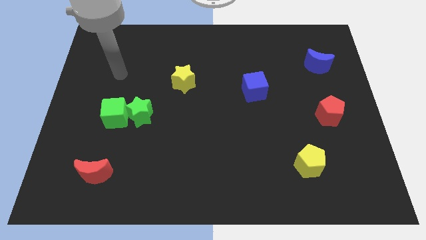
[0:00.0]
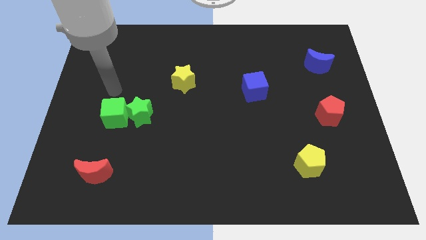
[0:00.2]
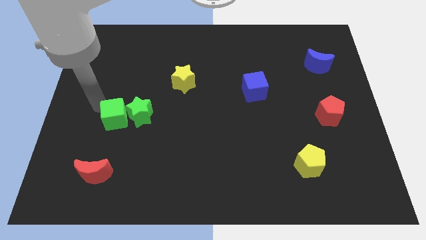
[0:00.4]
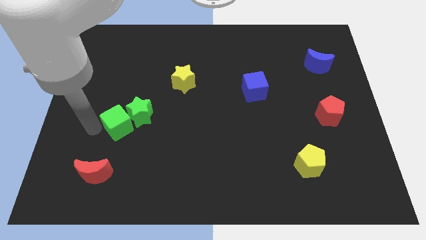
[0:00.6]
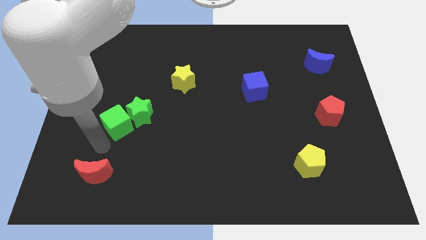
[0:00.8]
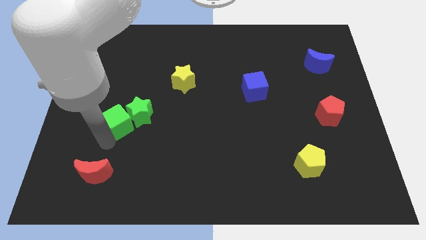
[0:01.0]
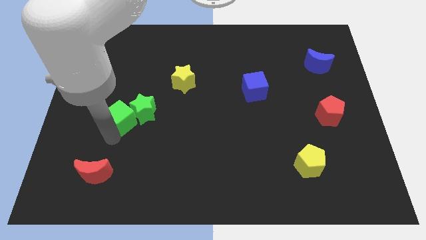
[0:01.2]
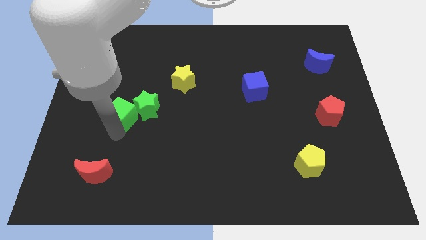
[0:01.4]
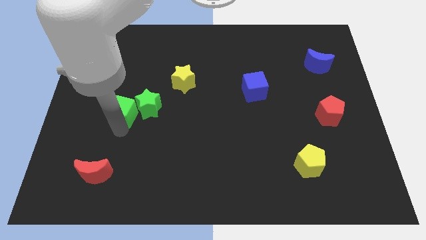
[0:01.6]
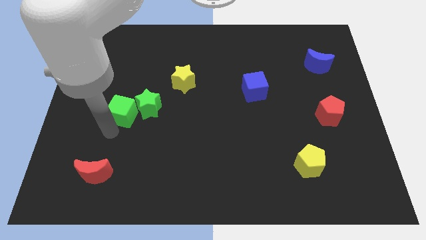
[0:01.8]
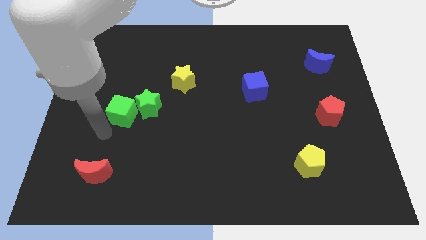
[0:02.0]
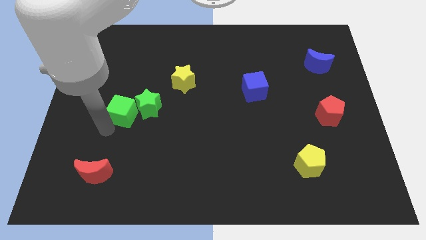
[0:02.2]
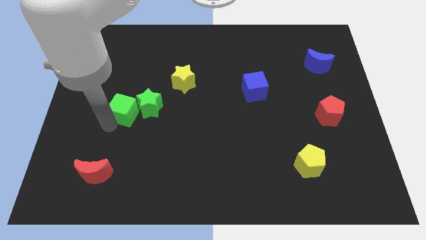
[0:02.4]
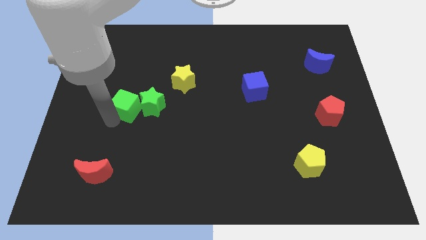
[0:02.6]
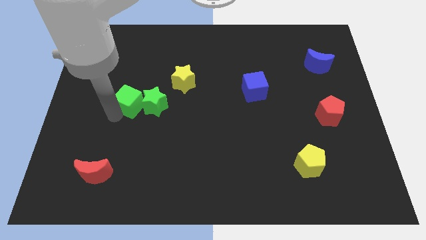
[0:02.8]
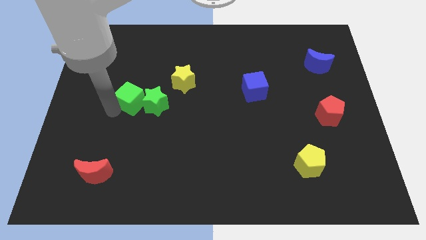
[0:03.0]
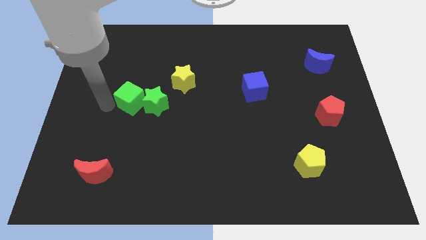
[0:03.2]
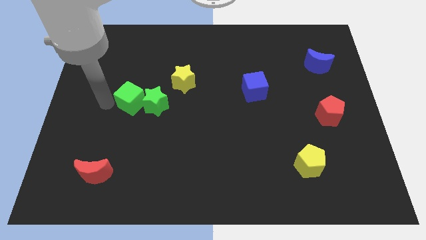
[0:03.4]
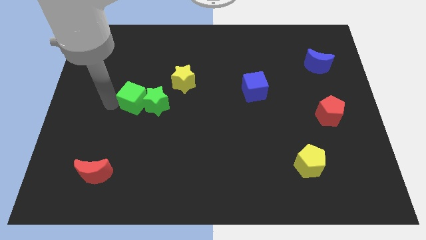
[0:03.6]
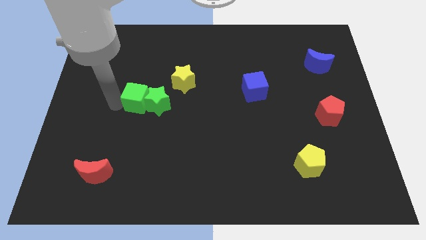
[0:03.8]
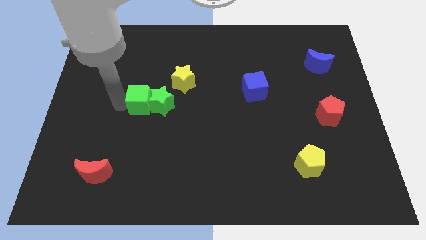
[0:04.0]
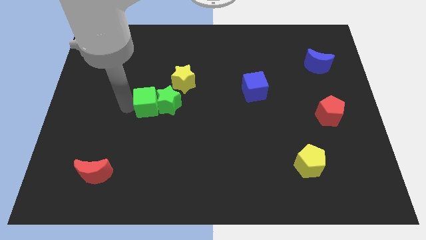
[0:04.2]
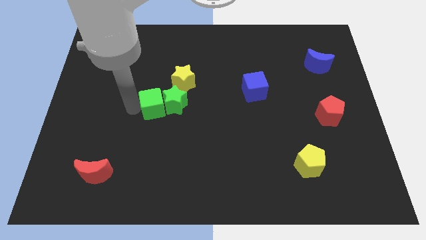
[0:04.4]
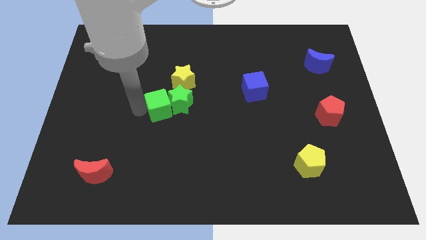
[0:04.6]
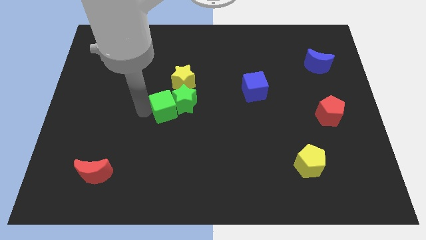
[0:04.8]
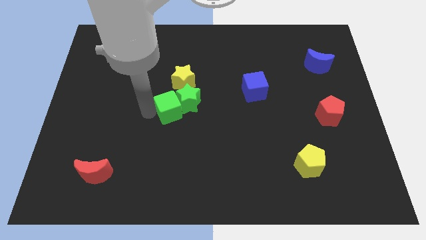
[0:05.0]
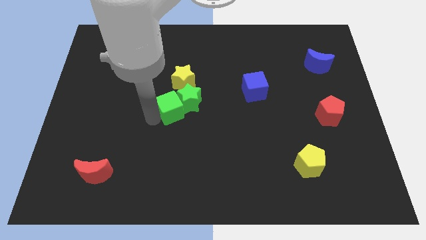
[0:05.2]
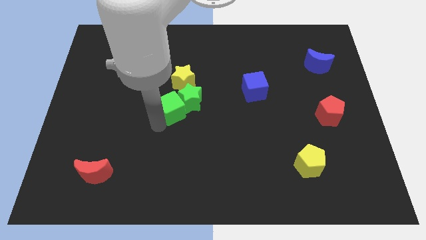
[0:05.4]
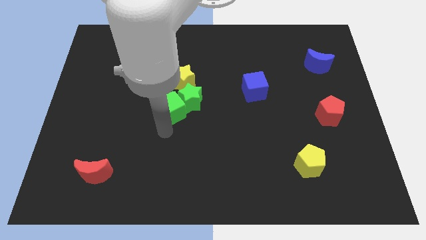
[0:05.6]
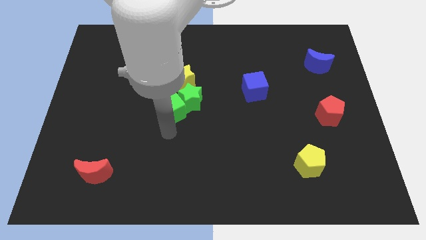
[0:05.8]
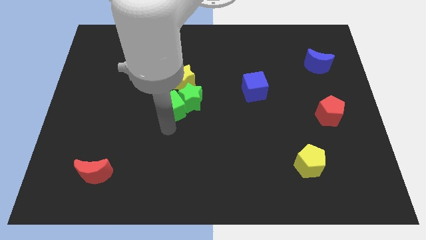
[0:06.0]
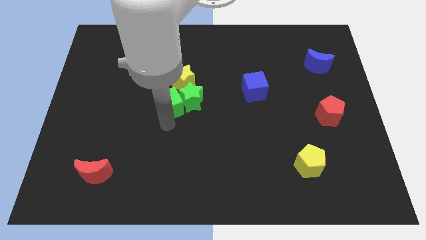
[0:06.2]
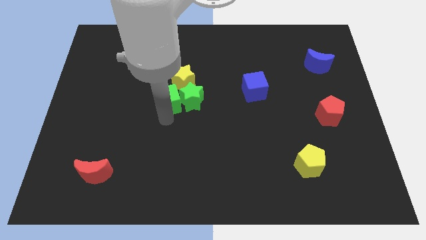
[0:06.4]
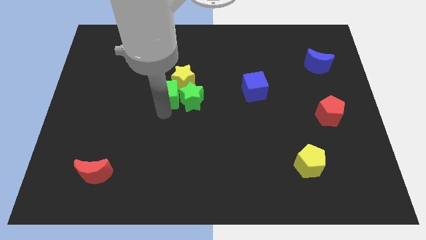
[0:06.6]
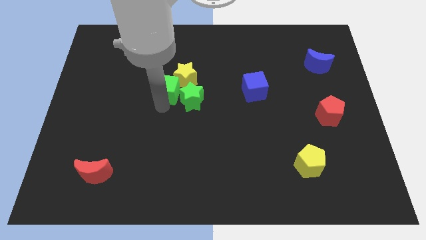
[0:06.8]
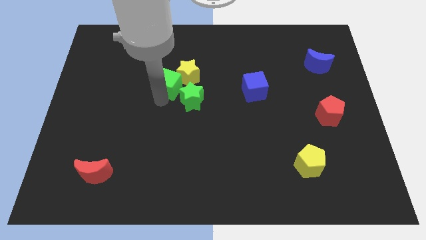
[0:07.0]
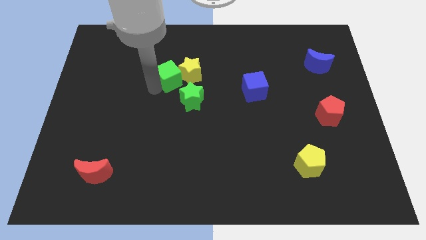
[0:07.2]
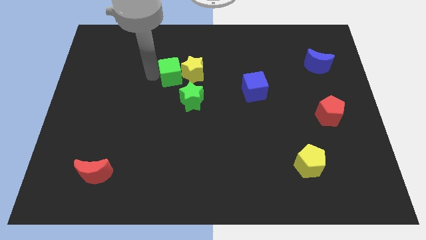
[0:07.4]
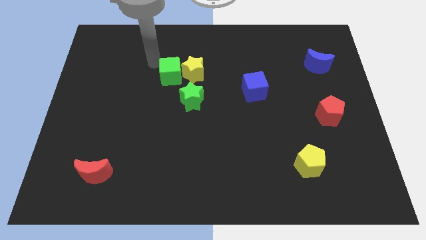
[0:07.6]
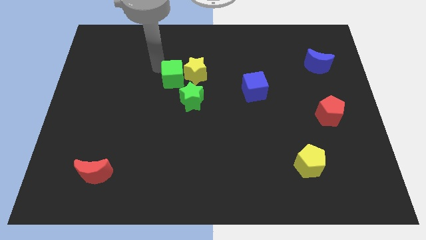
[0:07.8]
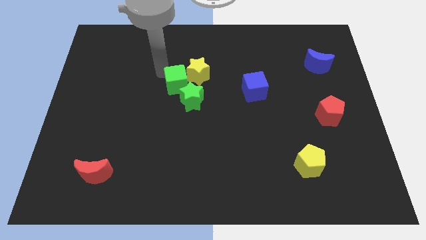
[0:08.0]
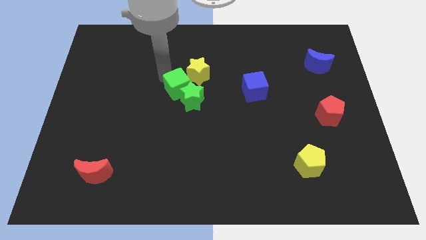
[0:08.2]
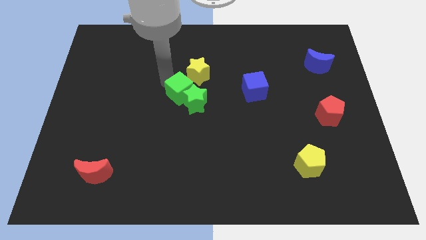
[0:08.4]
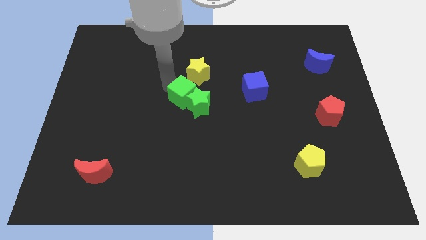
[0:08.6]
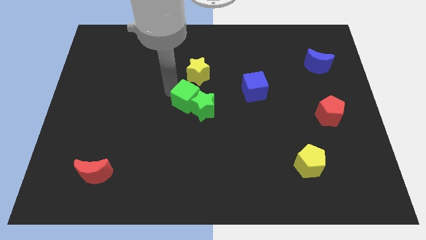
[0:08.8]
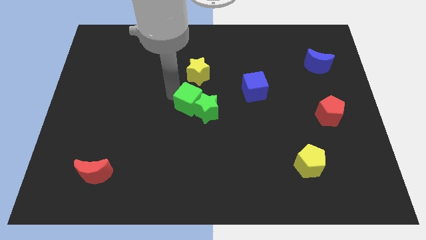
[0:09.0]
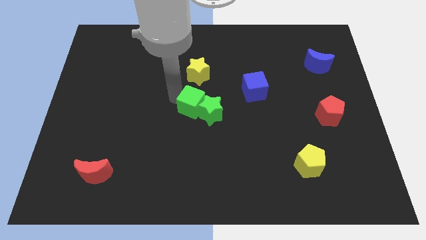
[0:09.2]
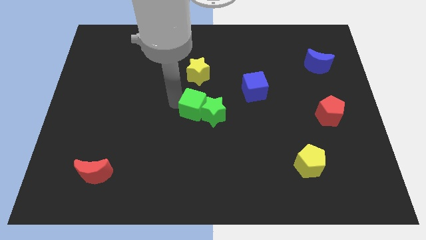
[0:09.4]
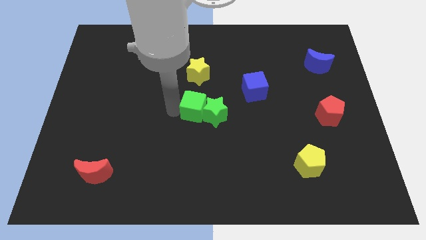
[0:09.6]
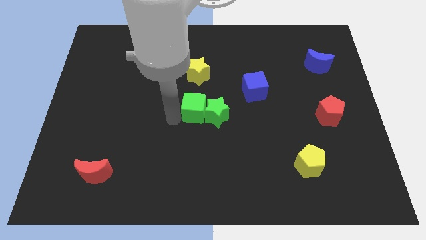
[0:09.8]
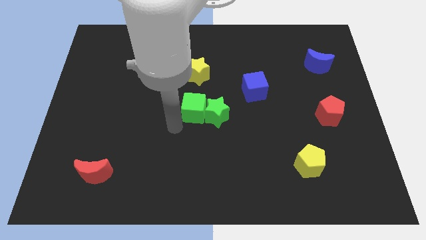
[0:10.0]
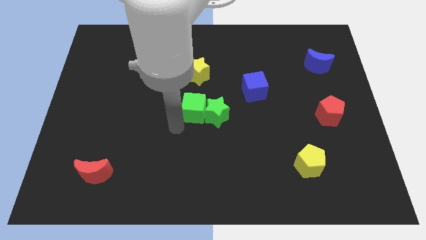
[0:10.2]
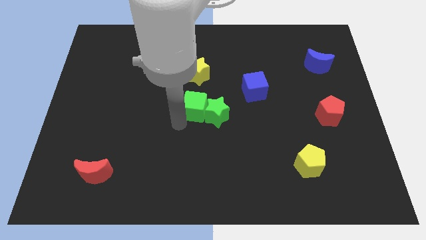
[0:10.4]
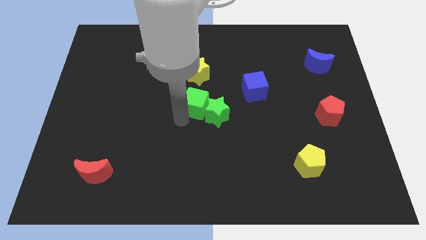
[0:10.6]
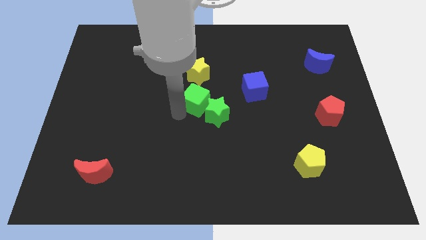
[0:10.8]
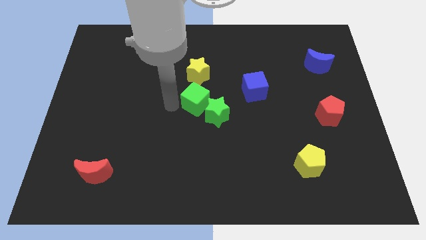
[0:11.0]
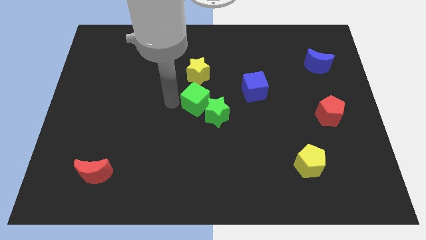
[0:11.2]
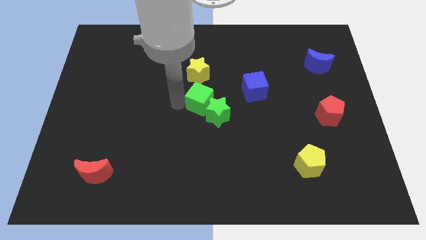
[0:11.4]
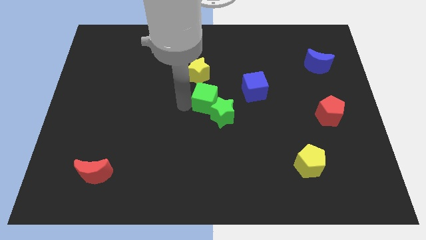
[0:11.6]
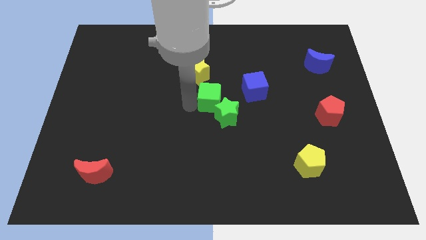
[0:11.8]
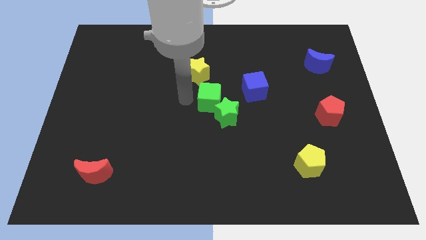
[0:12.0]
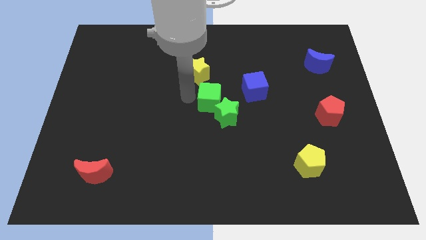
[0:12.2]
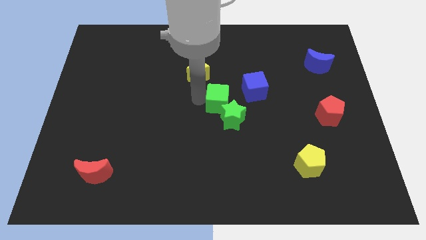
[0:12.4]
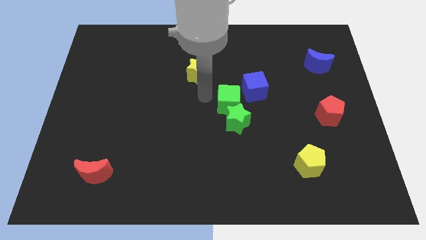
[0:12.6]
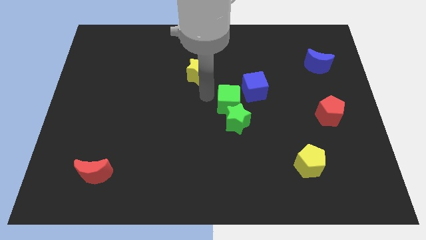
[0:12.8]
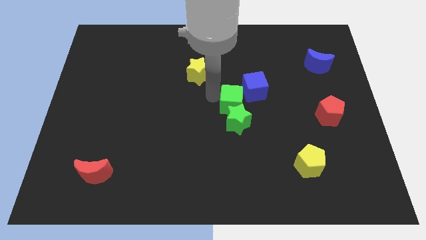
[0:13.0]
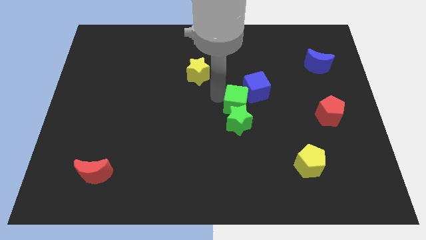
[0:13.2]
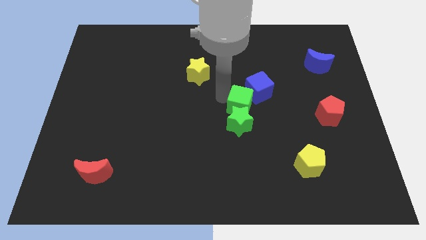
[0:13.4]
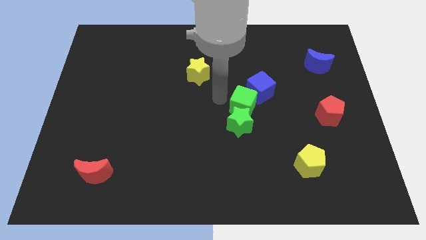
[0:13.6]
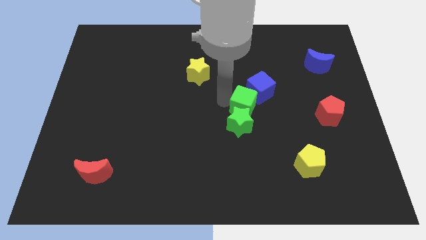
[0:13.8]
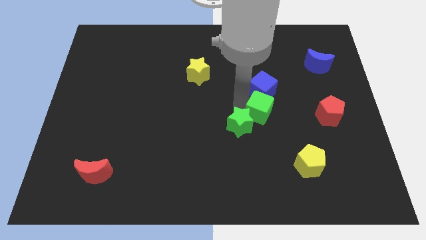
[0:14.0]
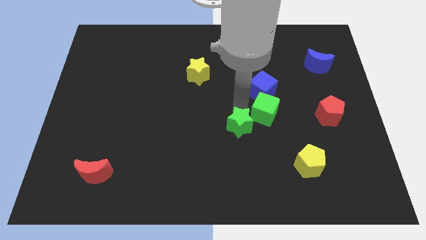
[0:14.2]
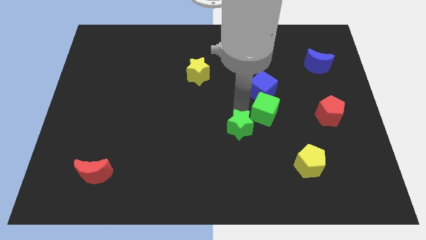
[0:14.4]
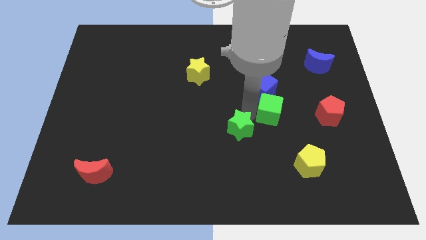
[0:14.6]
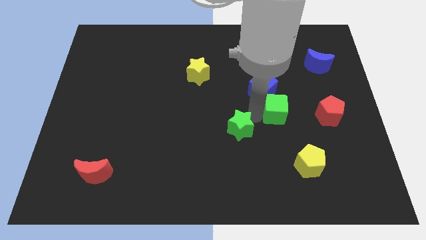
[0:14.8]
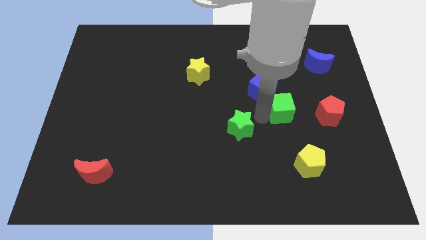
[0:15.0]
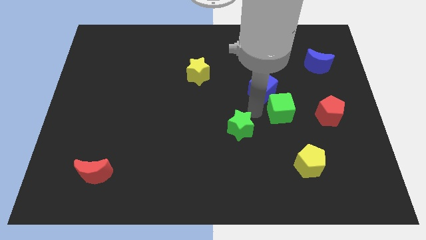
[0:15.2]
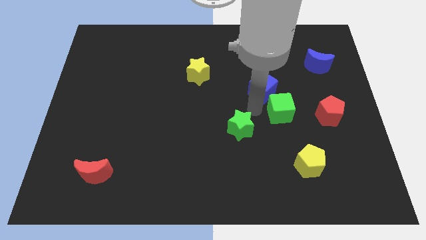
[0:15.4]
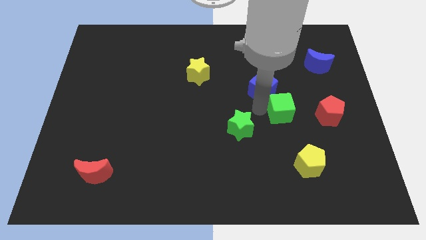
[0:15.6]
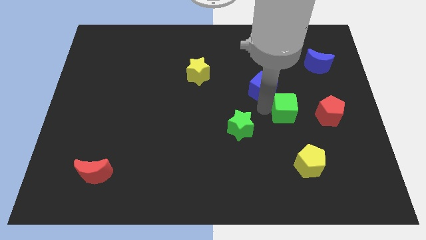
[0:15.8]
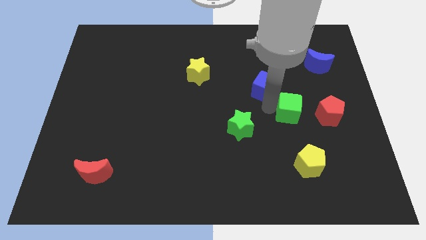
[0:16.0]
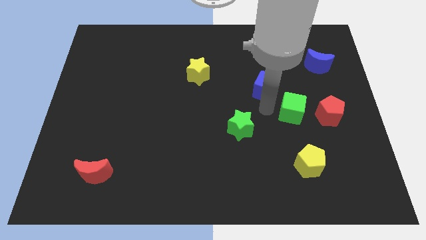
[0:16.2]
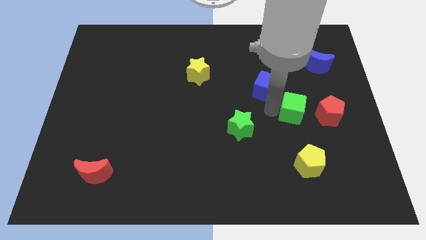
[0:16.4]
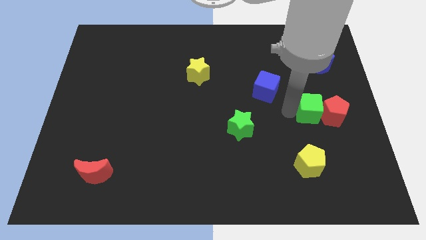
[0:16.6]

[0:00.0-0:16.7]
put the green cube to the red pentagon
